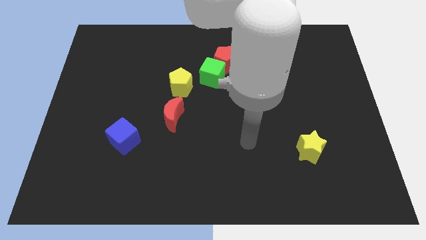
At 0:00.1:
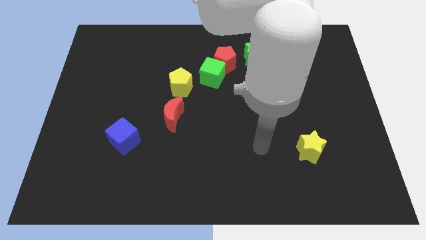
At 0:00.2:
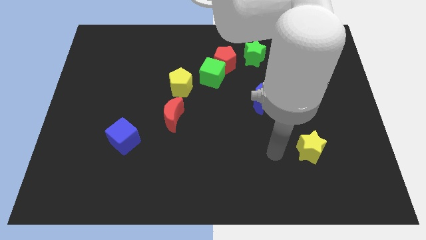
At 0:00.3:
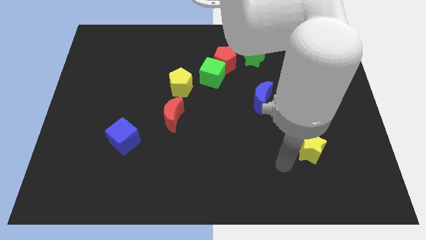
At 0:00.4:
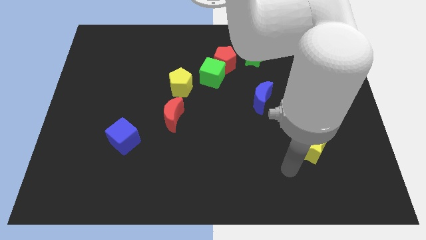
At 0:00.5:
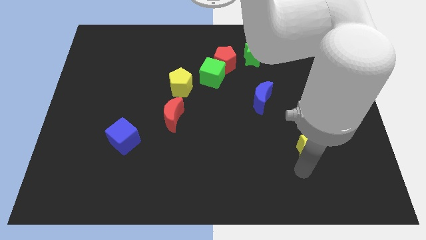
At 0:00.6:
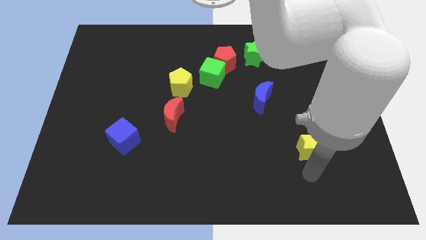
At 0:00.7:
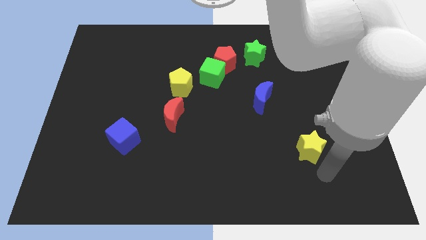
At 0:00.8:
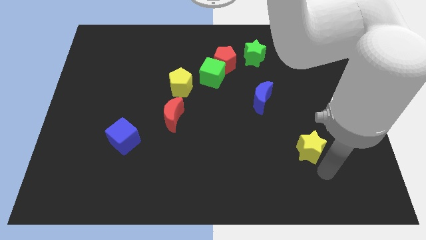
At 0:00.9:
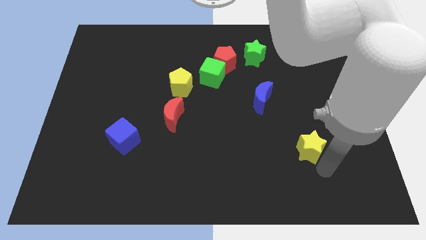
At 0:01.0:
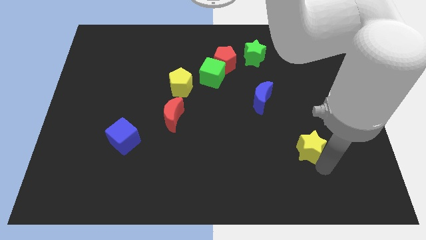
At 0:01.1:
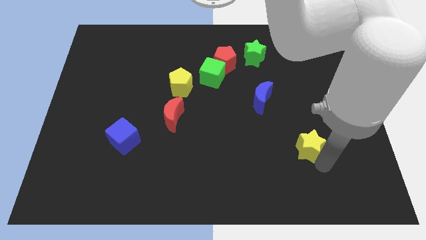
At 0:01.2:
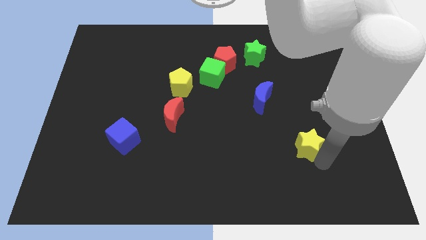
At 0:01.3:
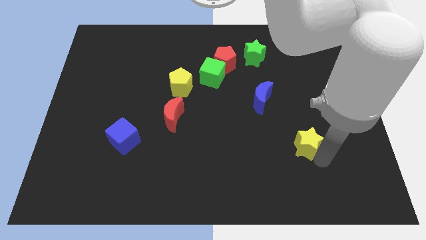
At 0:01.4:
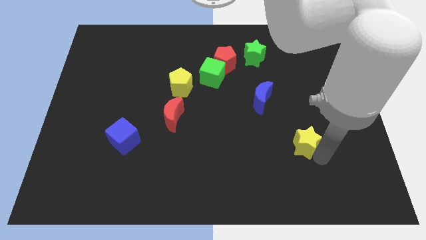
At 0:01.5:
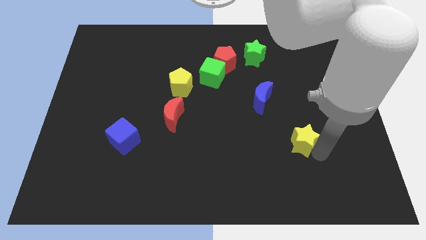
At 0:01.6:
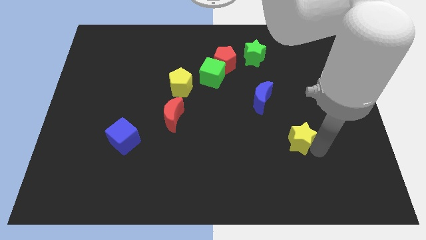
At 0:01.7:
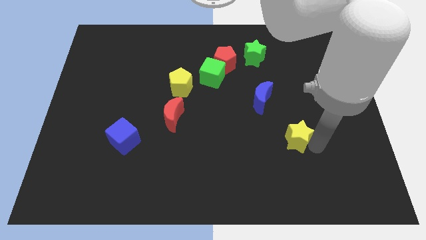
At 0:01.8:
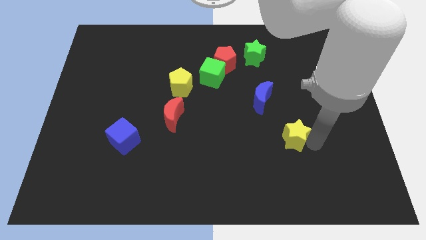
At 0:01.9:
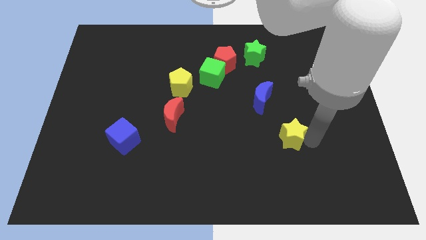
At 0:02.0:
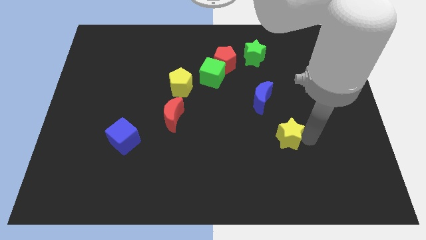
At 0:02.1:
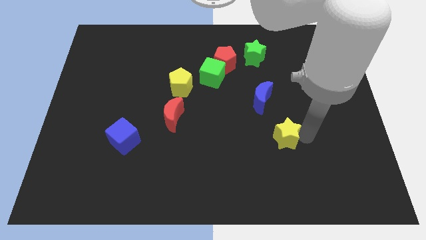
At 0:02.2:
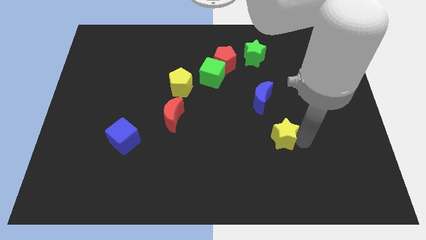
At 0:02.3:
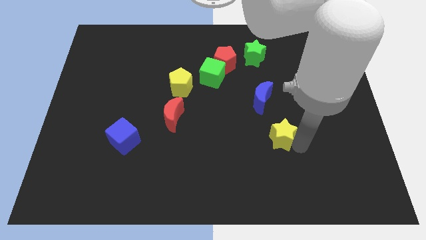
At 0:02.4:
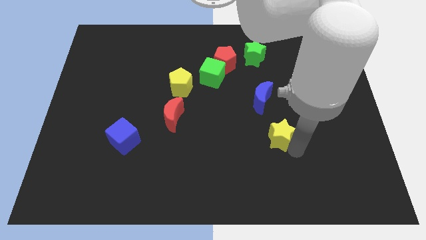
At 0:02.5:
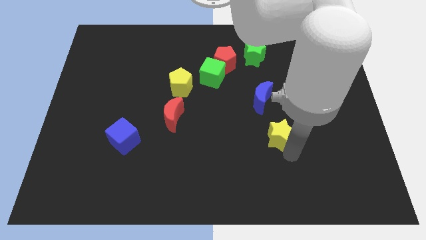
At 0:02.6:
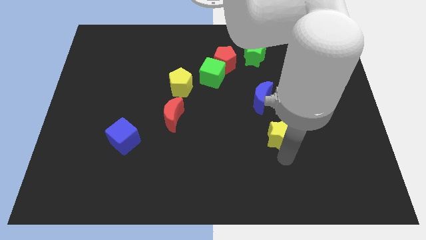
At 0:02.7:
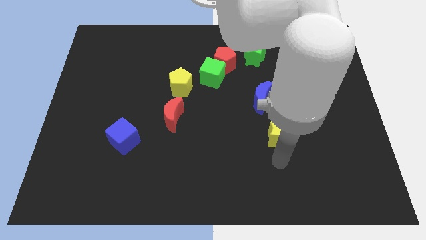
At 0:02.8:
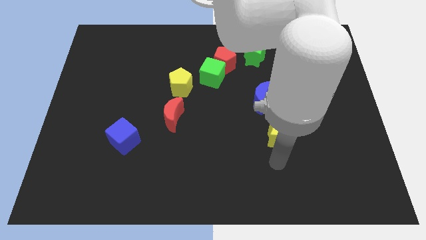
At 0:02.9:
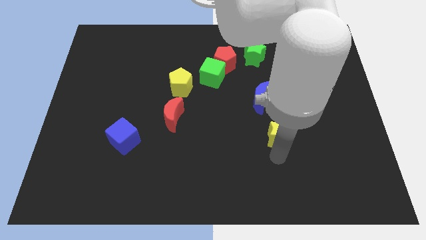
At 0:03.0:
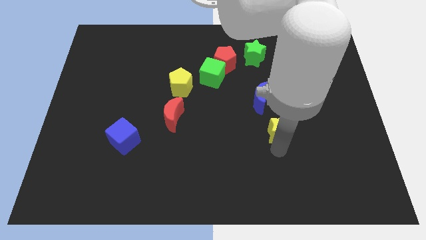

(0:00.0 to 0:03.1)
slide the yellow star upwards and to the left diagonally a little

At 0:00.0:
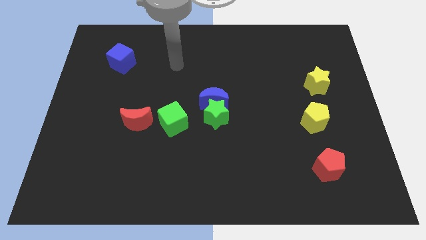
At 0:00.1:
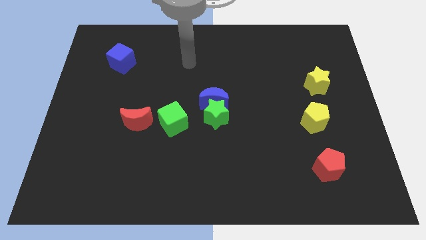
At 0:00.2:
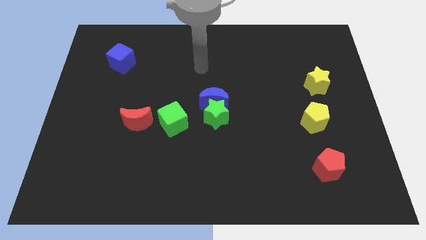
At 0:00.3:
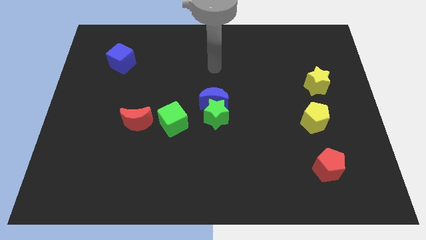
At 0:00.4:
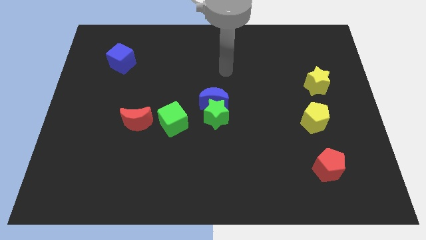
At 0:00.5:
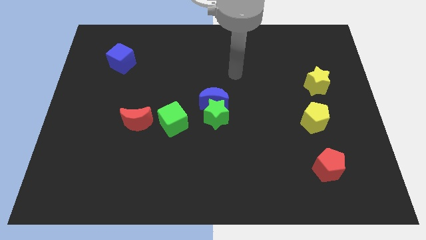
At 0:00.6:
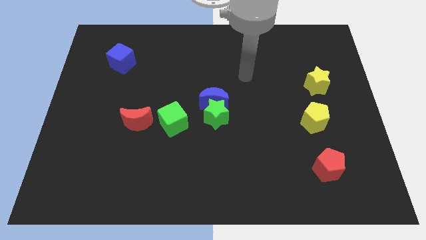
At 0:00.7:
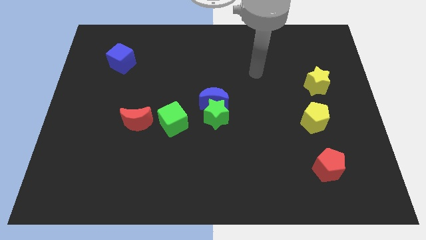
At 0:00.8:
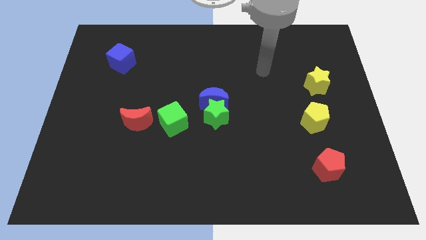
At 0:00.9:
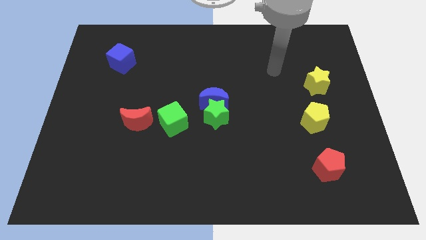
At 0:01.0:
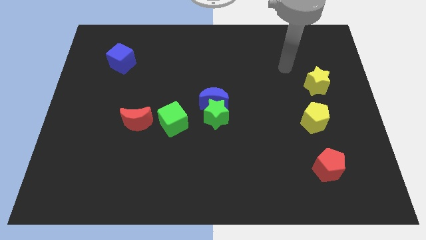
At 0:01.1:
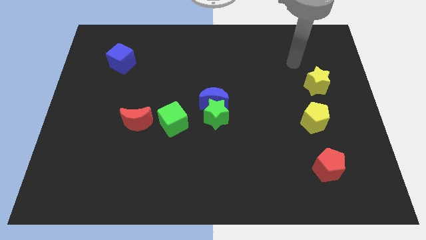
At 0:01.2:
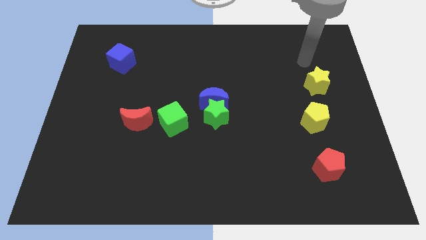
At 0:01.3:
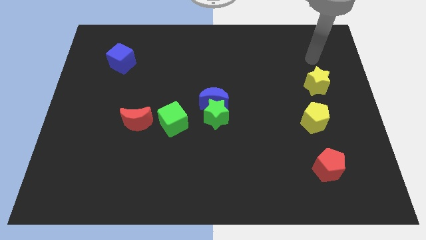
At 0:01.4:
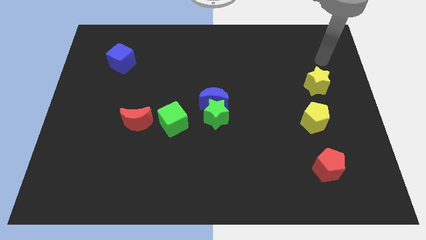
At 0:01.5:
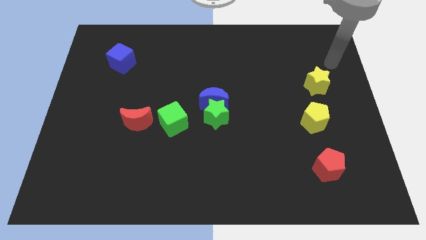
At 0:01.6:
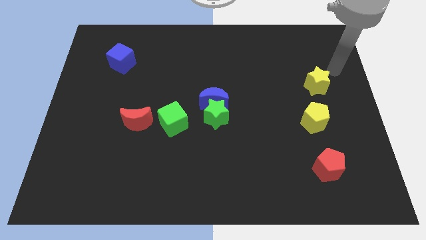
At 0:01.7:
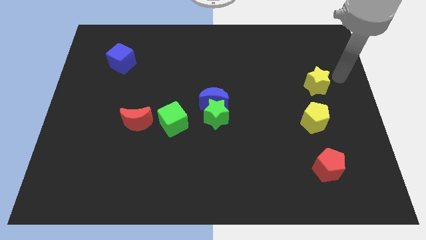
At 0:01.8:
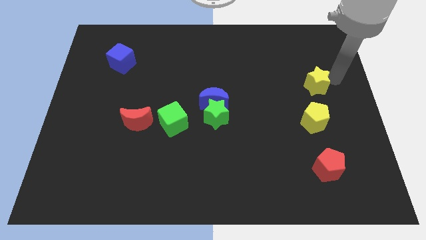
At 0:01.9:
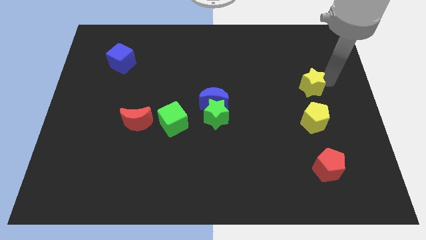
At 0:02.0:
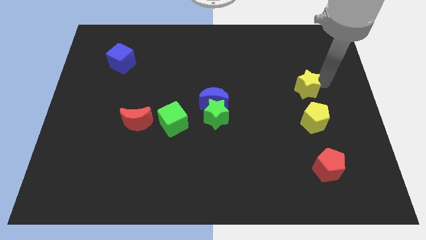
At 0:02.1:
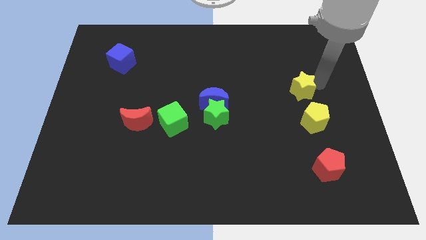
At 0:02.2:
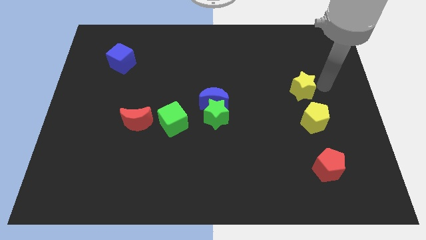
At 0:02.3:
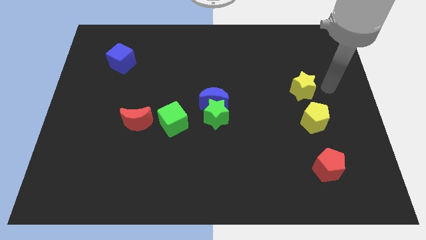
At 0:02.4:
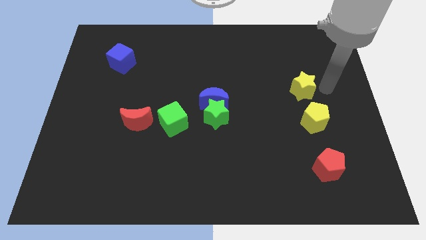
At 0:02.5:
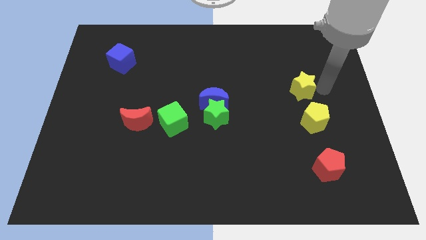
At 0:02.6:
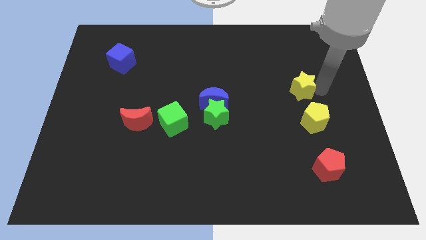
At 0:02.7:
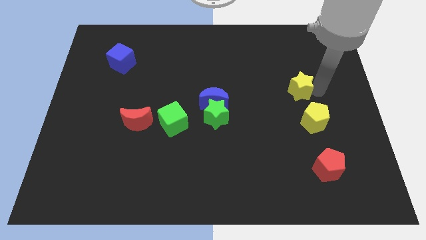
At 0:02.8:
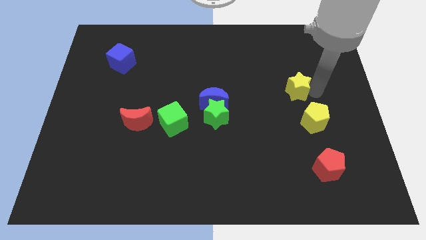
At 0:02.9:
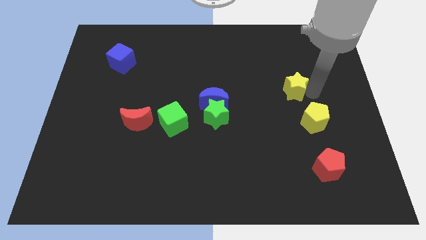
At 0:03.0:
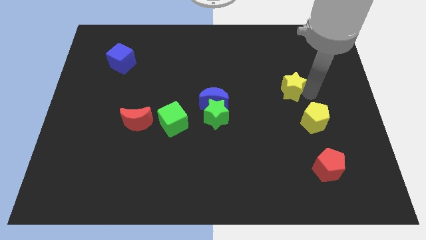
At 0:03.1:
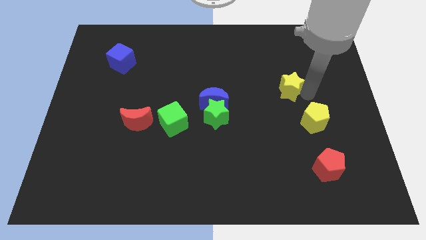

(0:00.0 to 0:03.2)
slide the yellow star to the left a little

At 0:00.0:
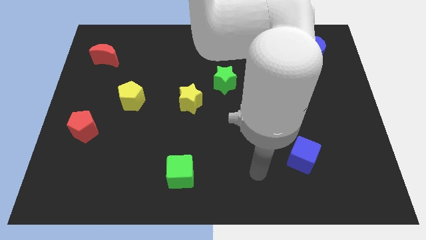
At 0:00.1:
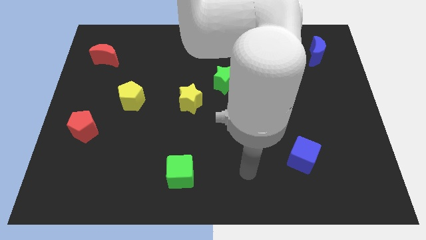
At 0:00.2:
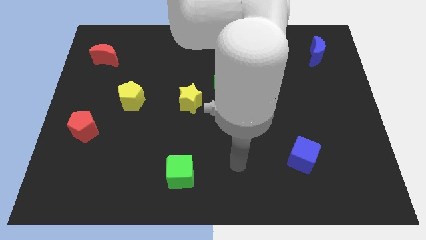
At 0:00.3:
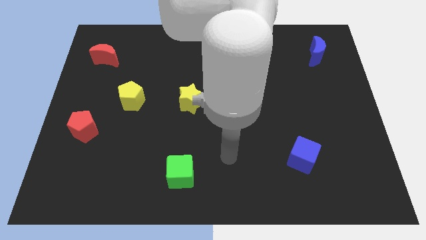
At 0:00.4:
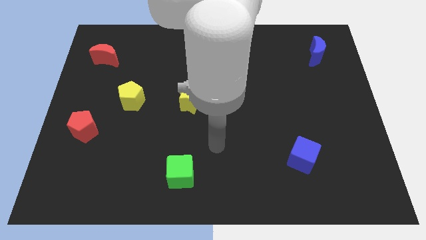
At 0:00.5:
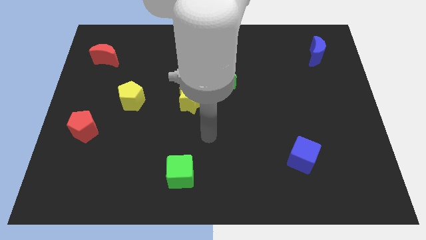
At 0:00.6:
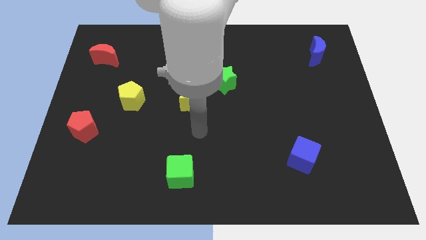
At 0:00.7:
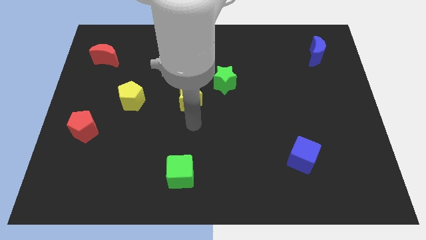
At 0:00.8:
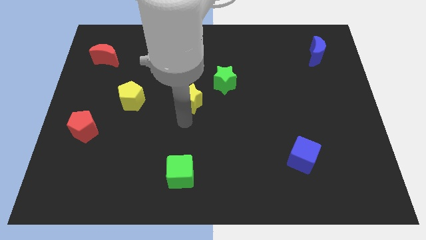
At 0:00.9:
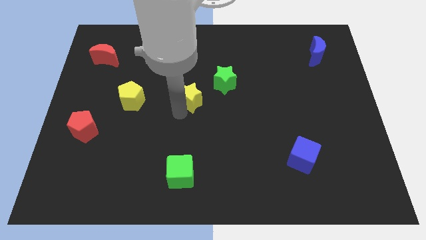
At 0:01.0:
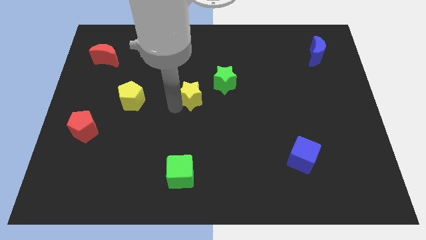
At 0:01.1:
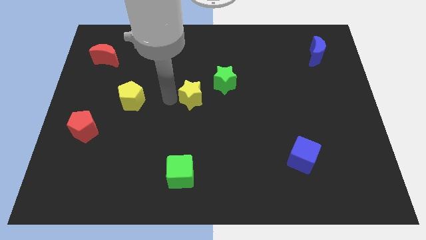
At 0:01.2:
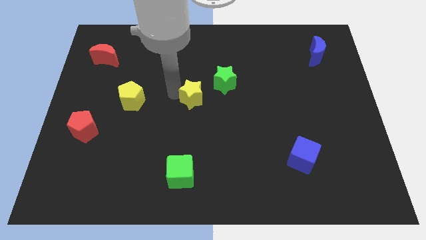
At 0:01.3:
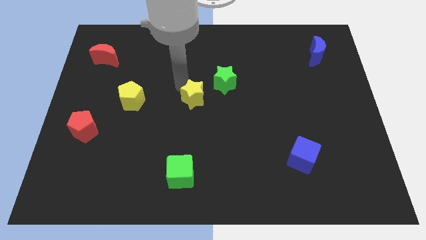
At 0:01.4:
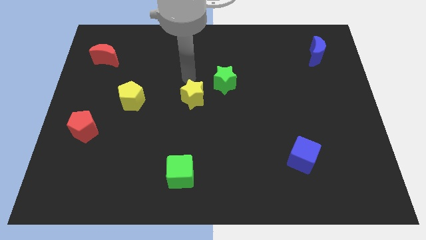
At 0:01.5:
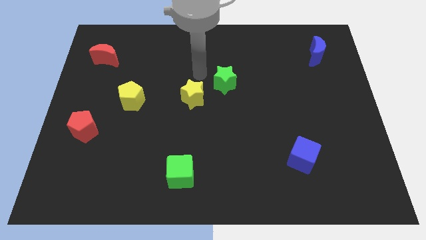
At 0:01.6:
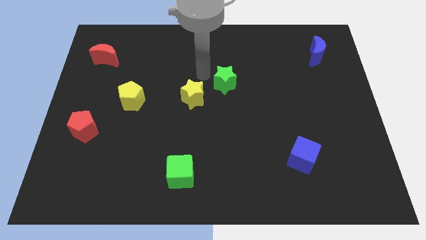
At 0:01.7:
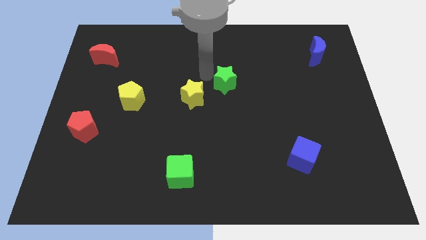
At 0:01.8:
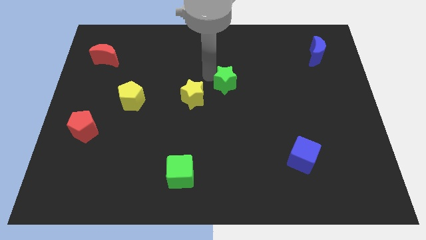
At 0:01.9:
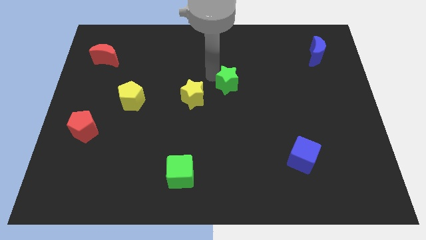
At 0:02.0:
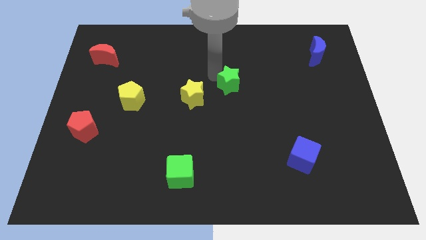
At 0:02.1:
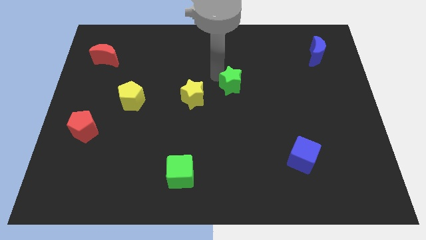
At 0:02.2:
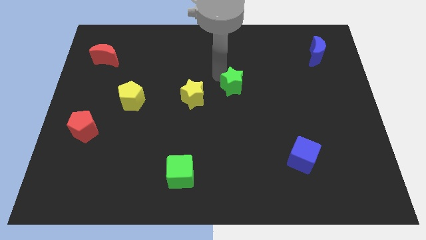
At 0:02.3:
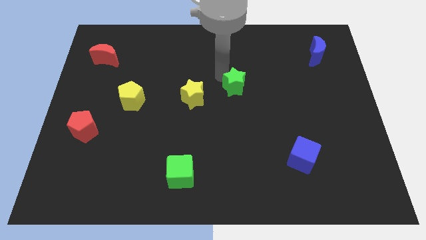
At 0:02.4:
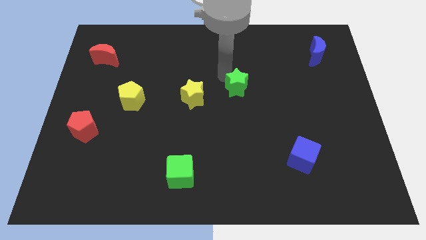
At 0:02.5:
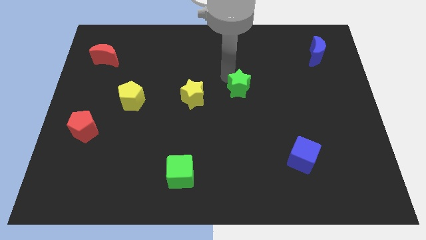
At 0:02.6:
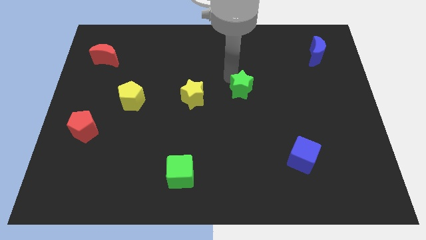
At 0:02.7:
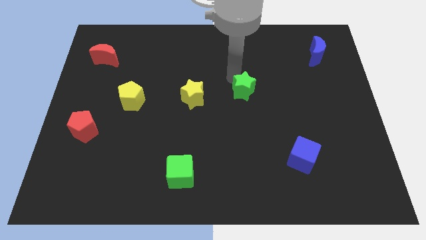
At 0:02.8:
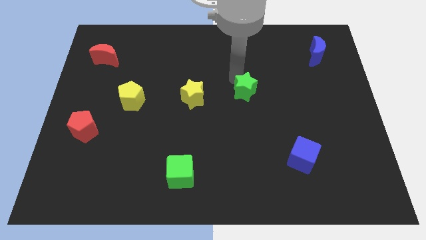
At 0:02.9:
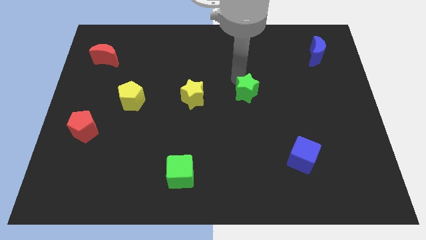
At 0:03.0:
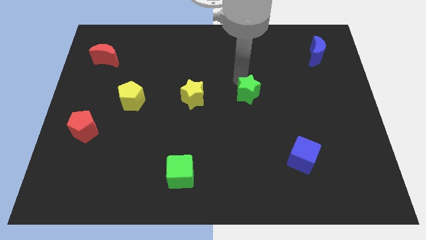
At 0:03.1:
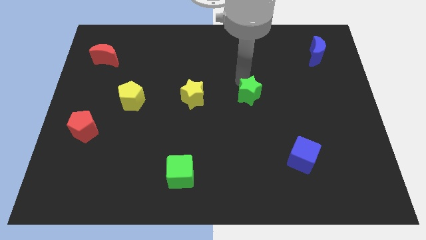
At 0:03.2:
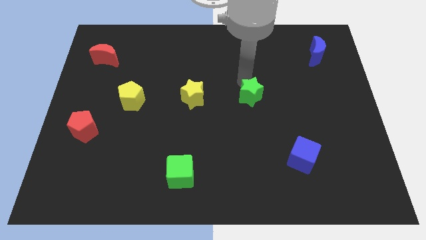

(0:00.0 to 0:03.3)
slightly move the green star down and then right
